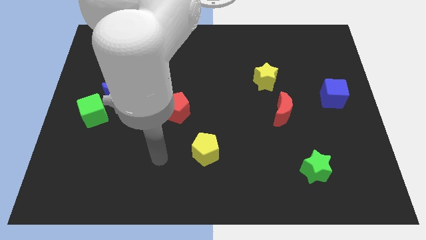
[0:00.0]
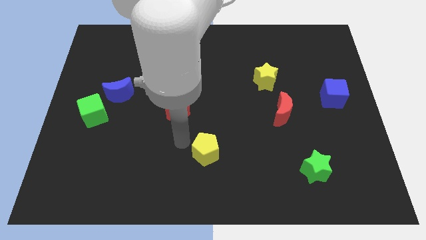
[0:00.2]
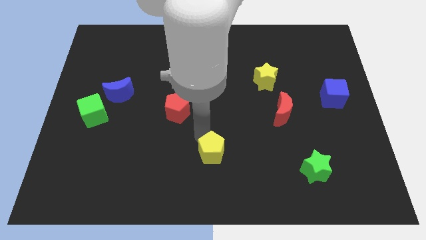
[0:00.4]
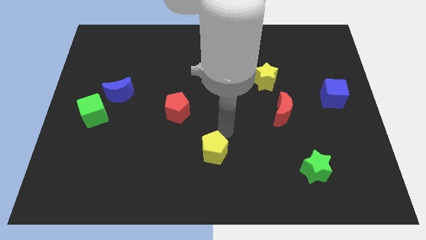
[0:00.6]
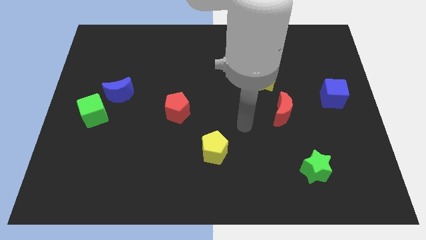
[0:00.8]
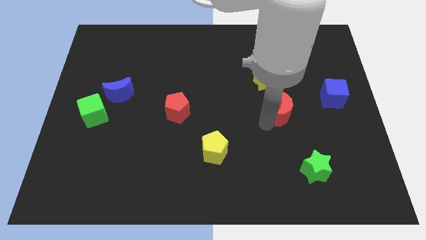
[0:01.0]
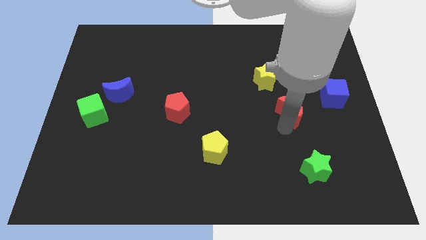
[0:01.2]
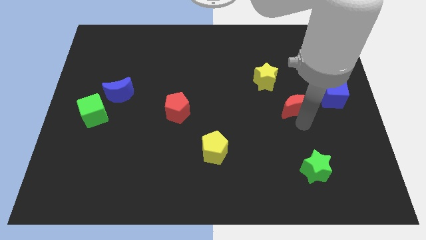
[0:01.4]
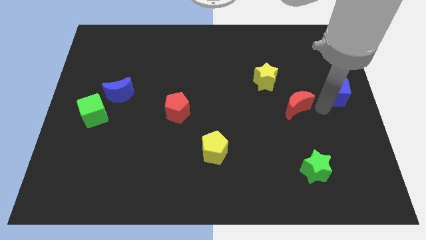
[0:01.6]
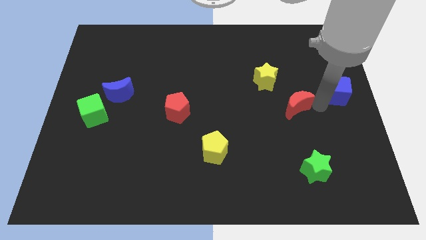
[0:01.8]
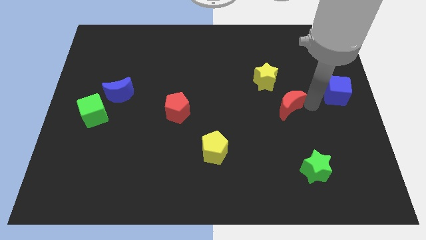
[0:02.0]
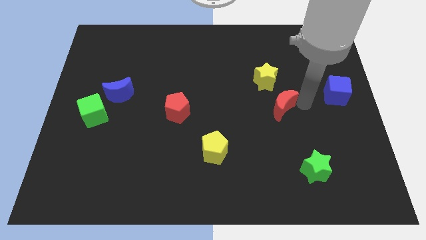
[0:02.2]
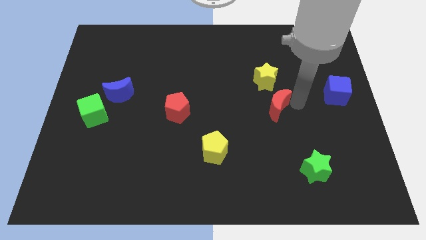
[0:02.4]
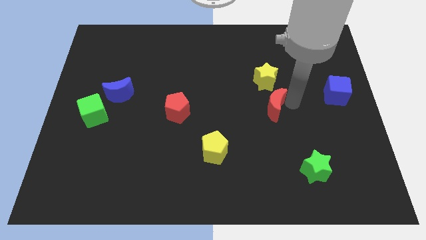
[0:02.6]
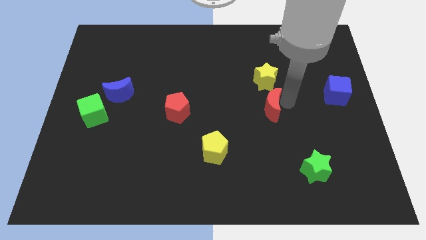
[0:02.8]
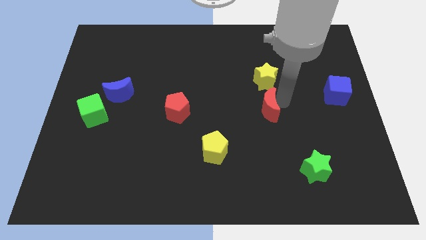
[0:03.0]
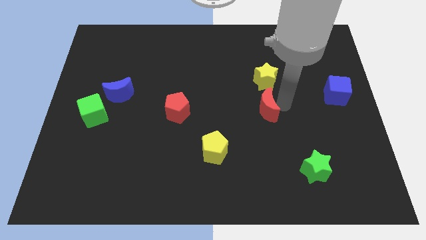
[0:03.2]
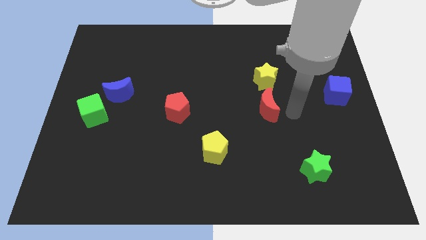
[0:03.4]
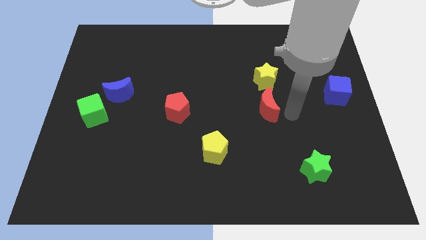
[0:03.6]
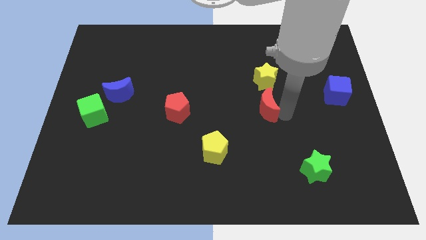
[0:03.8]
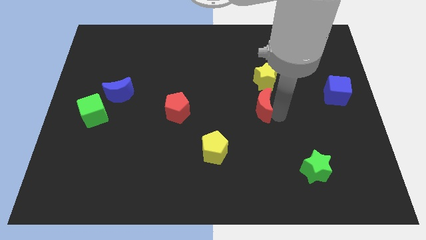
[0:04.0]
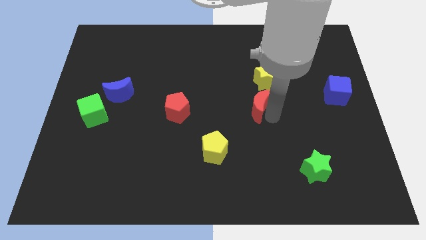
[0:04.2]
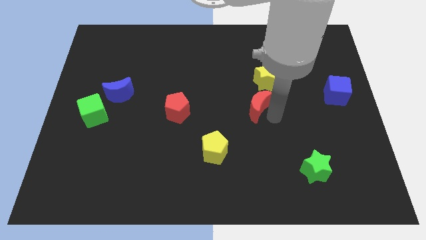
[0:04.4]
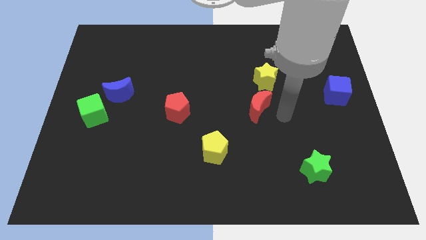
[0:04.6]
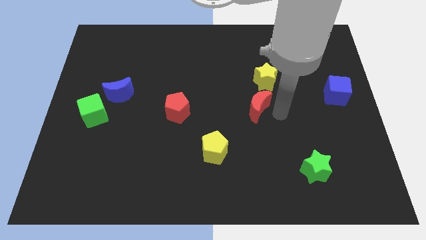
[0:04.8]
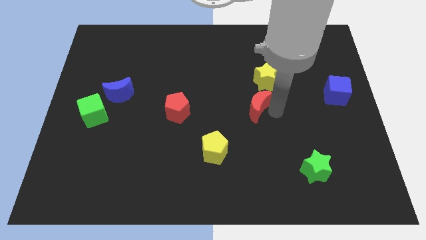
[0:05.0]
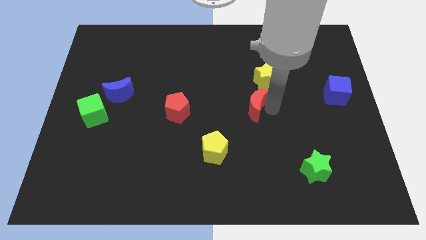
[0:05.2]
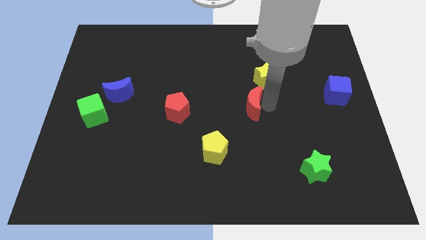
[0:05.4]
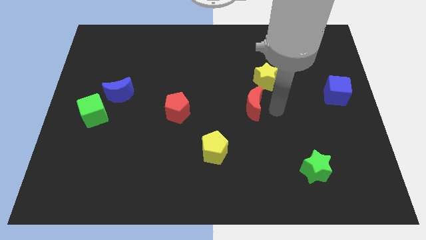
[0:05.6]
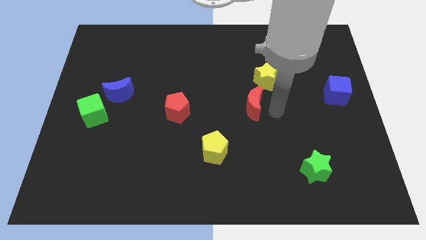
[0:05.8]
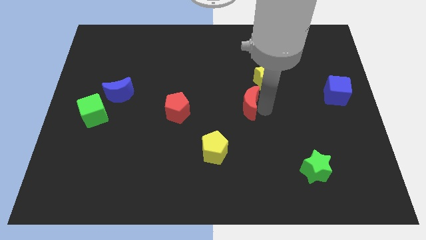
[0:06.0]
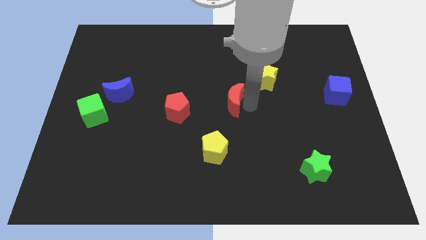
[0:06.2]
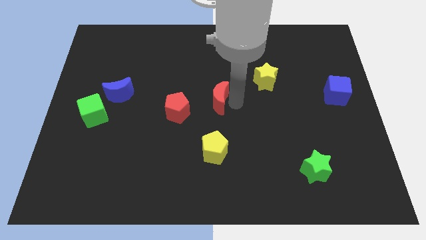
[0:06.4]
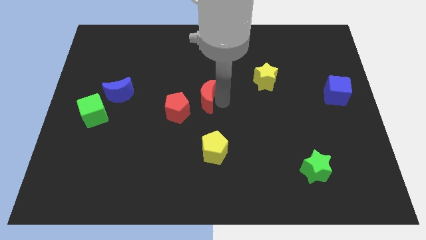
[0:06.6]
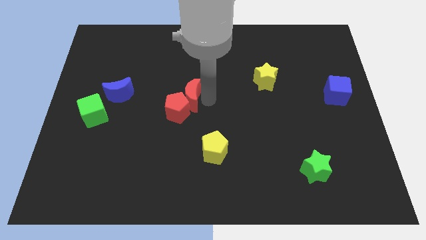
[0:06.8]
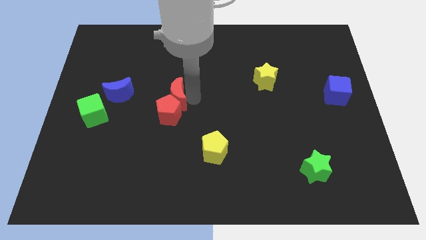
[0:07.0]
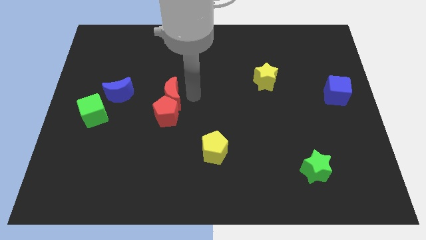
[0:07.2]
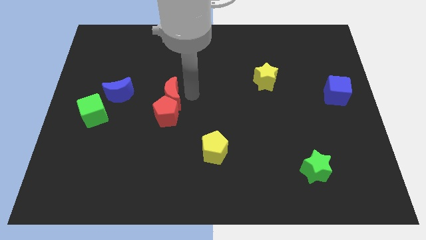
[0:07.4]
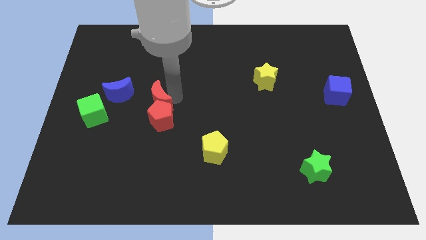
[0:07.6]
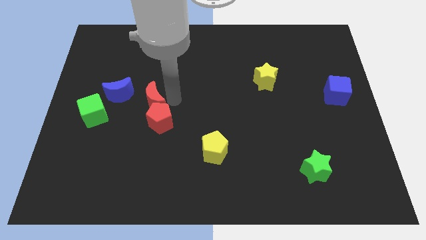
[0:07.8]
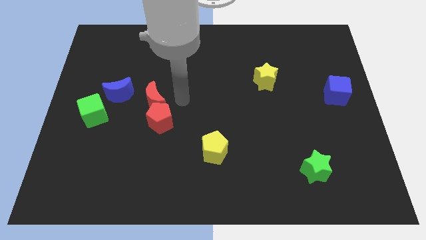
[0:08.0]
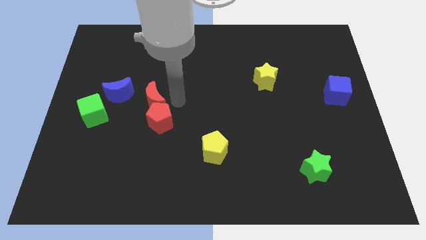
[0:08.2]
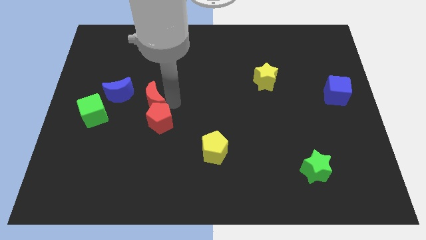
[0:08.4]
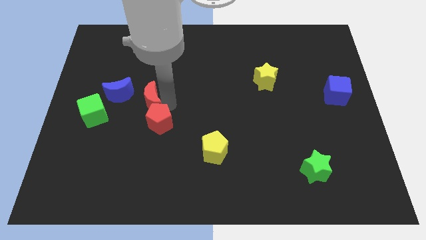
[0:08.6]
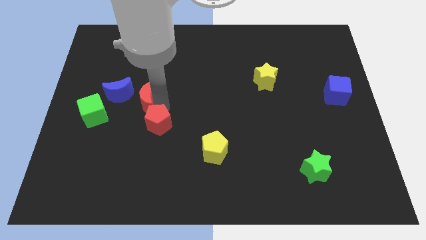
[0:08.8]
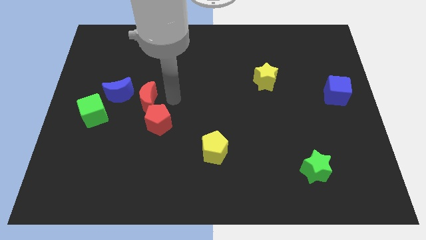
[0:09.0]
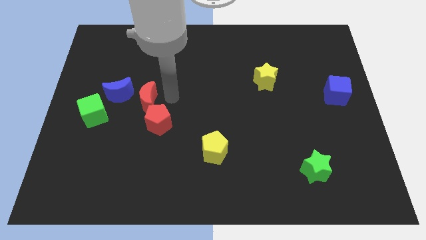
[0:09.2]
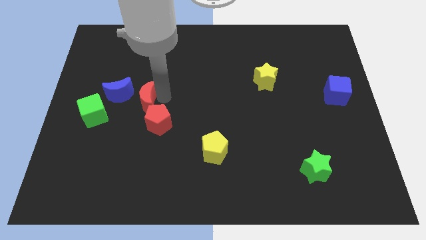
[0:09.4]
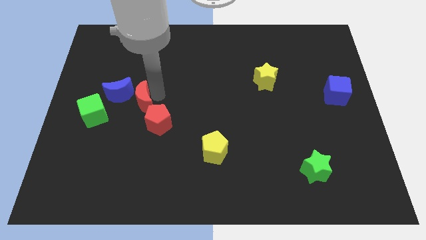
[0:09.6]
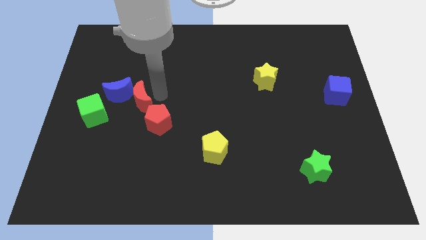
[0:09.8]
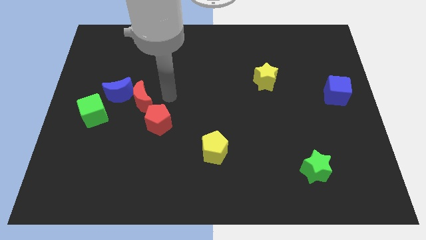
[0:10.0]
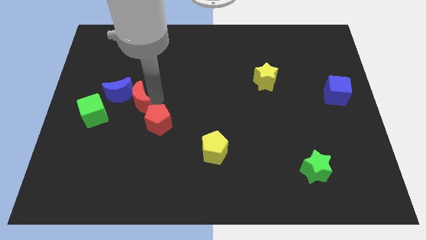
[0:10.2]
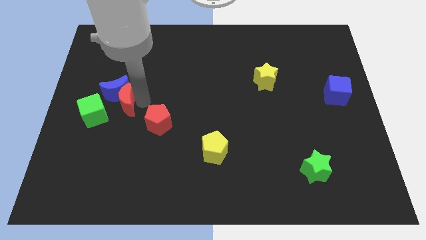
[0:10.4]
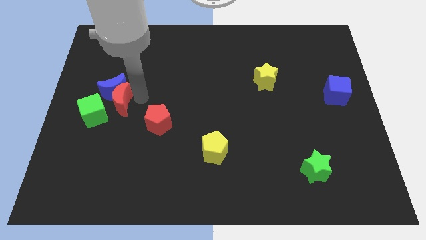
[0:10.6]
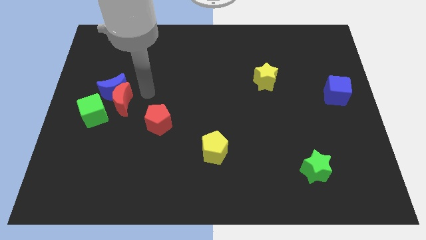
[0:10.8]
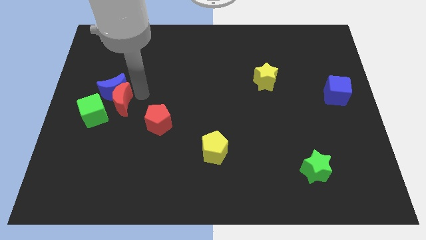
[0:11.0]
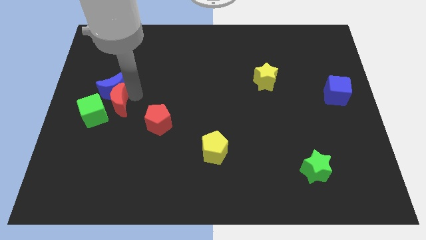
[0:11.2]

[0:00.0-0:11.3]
slide the red moon next to the green cube

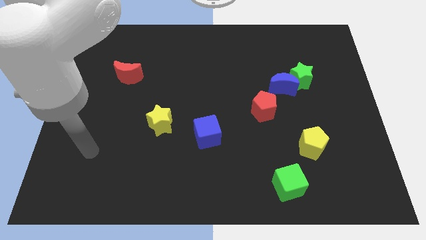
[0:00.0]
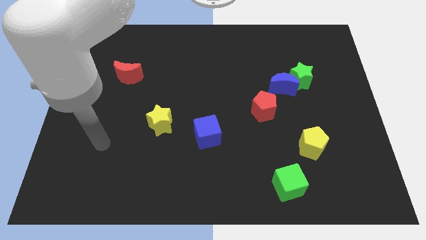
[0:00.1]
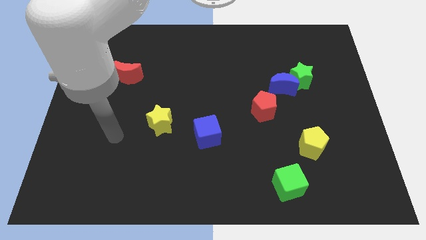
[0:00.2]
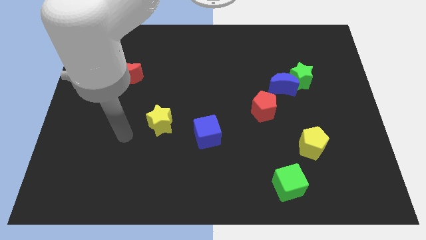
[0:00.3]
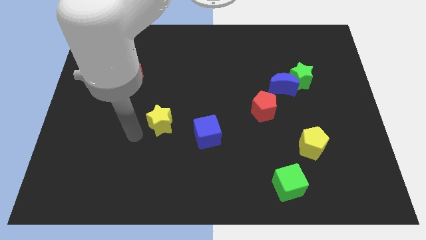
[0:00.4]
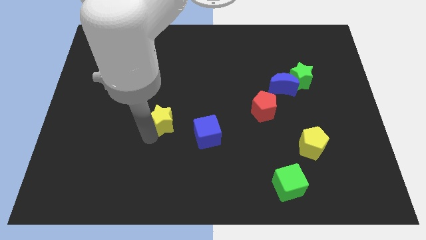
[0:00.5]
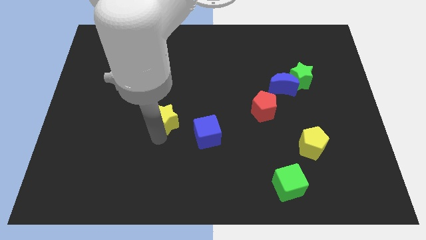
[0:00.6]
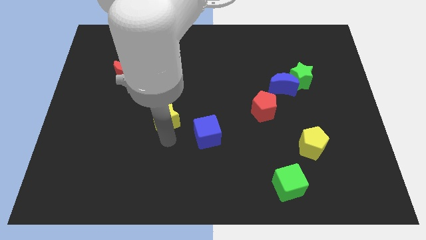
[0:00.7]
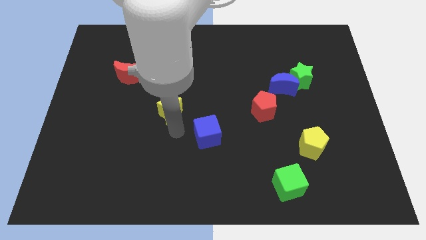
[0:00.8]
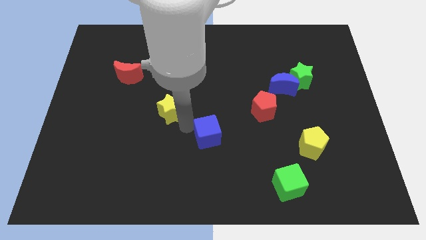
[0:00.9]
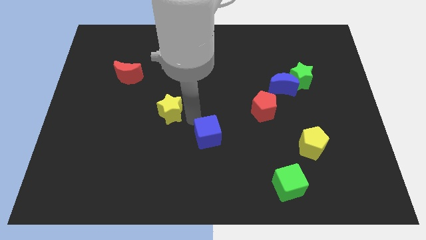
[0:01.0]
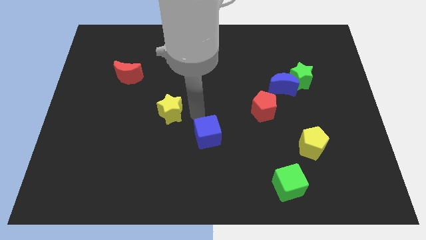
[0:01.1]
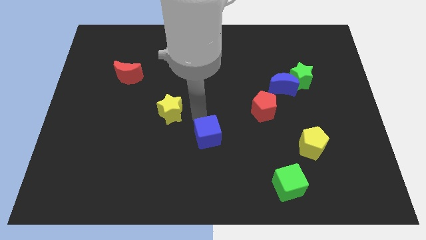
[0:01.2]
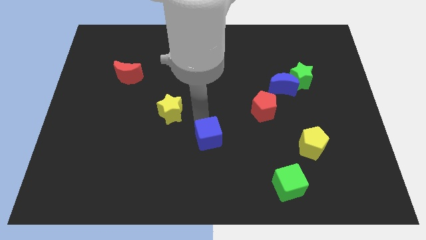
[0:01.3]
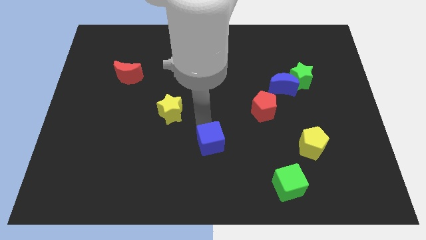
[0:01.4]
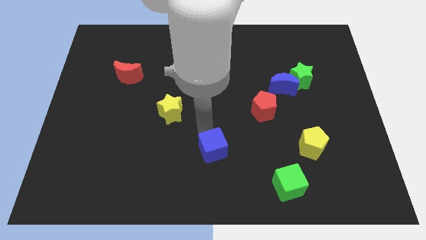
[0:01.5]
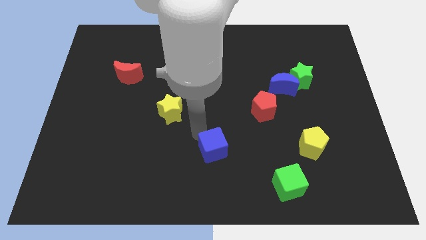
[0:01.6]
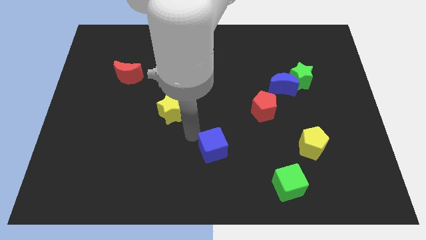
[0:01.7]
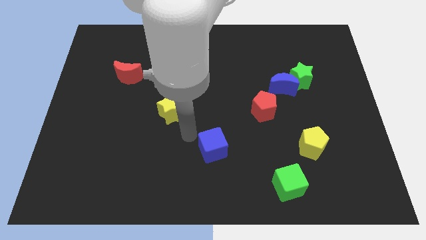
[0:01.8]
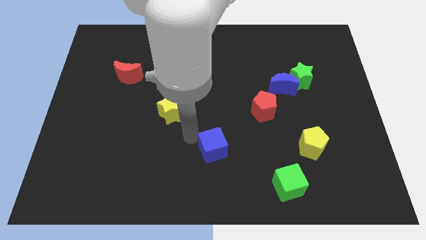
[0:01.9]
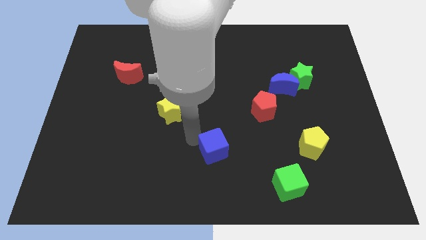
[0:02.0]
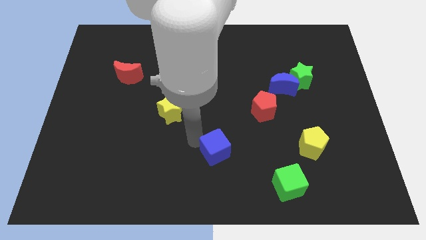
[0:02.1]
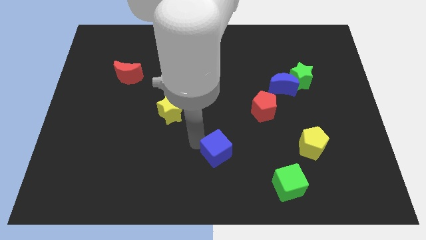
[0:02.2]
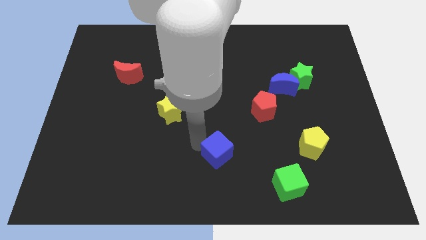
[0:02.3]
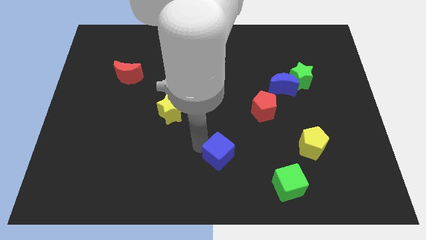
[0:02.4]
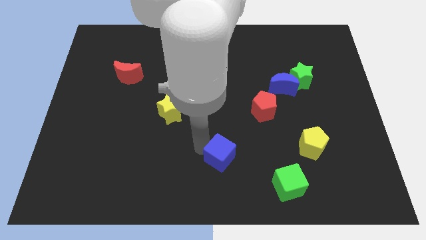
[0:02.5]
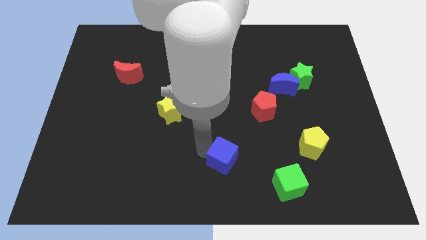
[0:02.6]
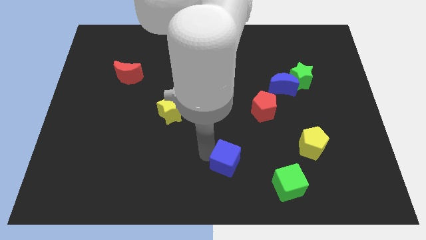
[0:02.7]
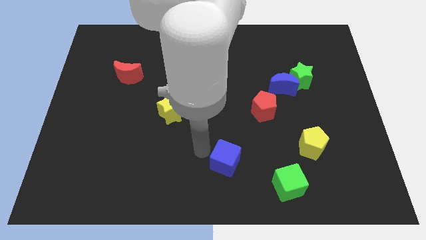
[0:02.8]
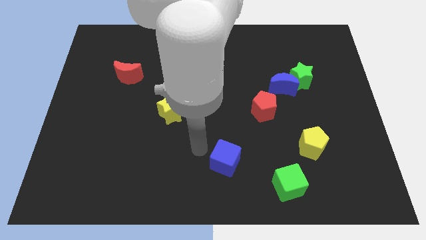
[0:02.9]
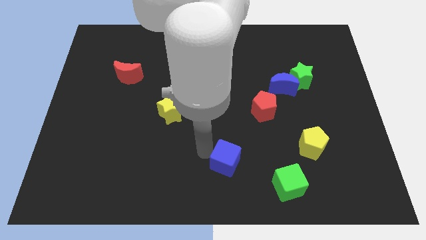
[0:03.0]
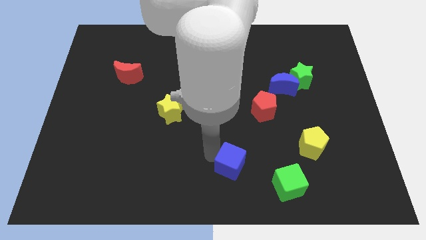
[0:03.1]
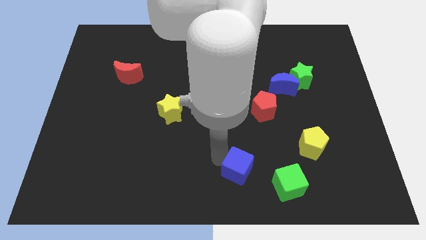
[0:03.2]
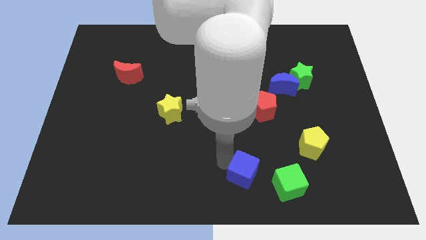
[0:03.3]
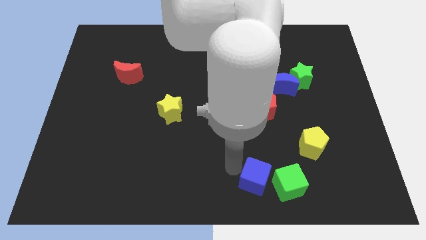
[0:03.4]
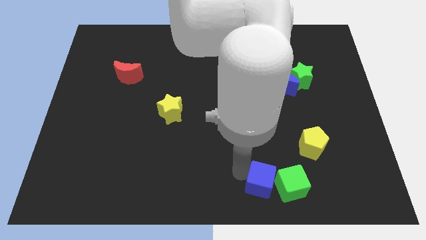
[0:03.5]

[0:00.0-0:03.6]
push the blue cube close to the green cube
